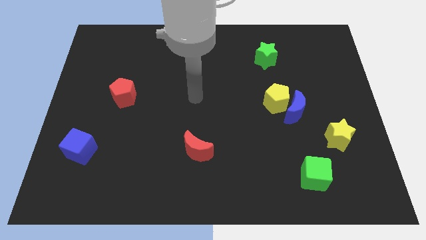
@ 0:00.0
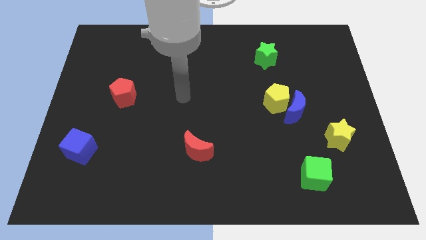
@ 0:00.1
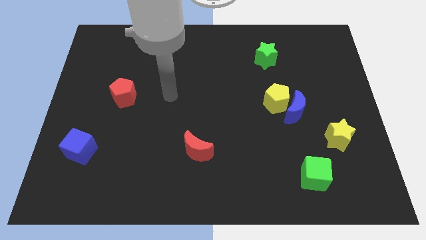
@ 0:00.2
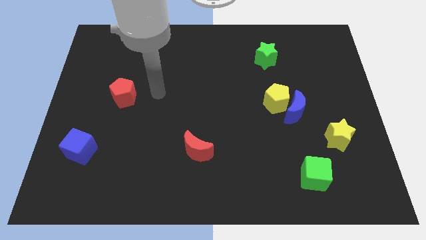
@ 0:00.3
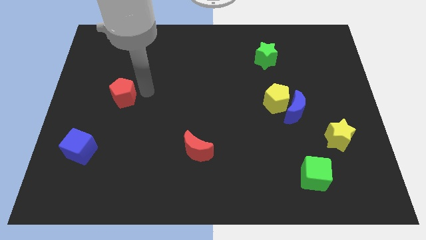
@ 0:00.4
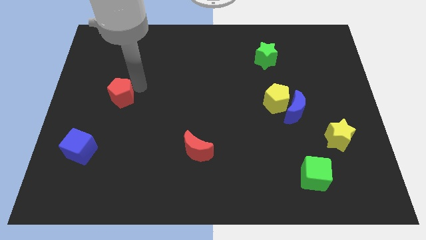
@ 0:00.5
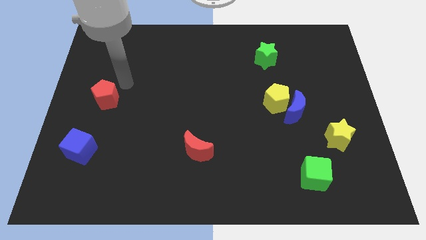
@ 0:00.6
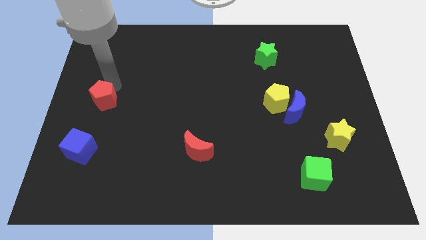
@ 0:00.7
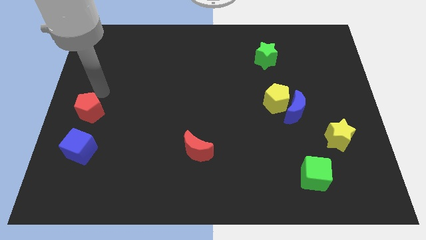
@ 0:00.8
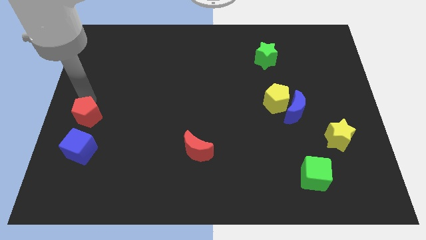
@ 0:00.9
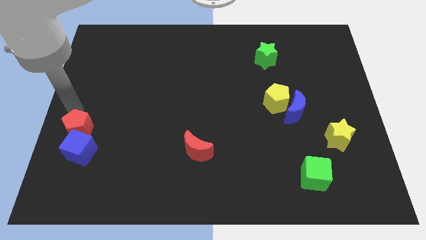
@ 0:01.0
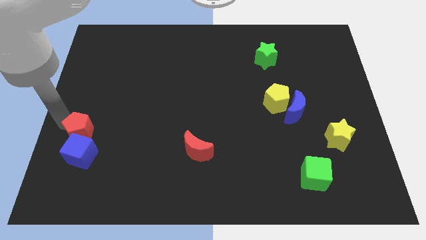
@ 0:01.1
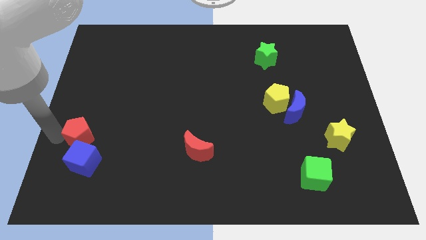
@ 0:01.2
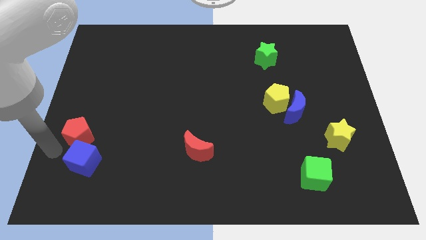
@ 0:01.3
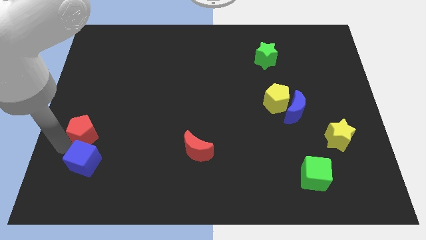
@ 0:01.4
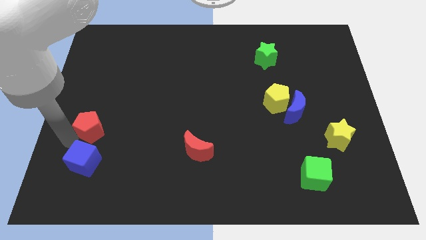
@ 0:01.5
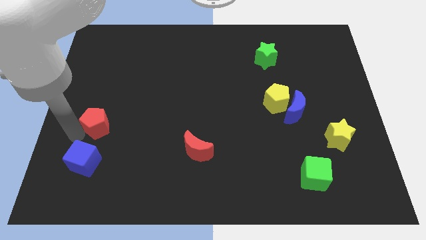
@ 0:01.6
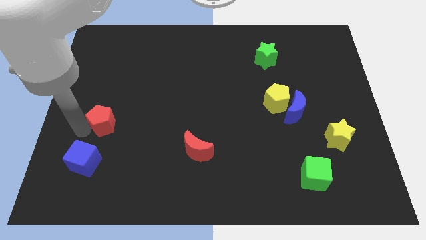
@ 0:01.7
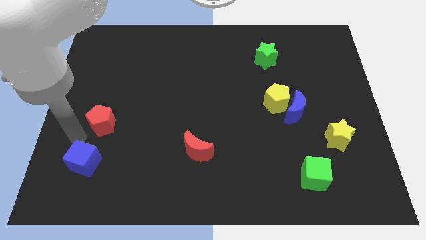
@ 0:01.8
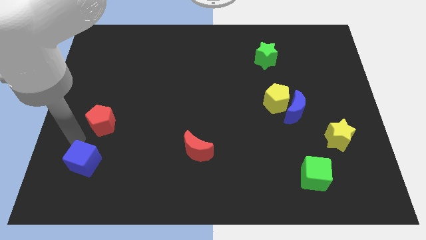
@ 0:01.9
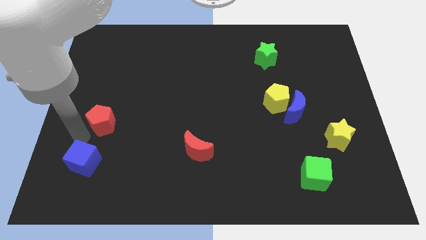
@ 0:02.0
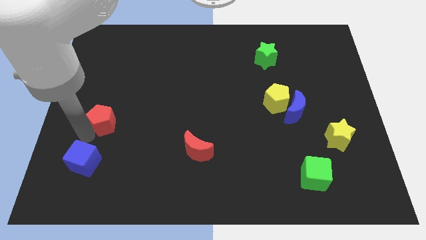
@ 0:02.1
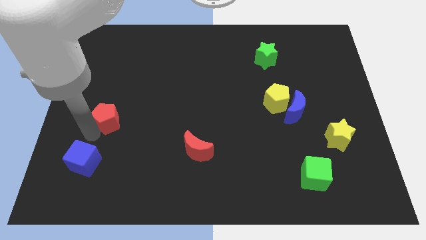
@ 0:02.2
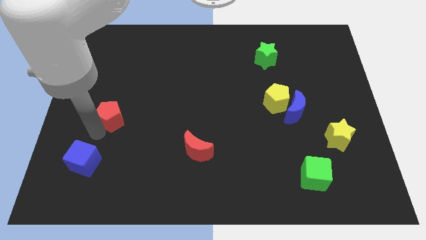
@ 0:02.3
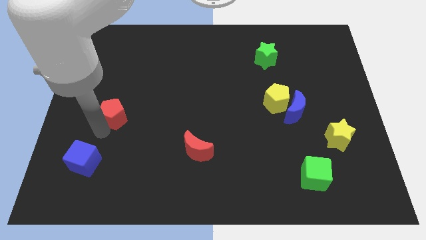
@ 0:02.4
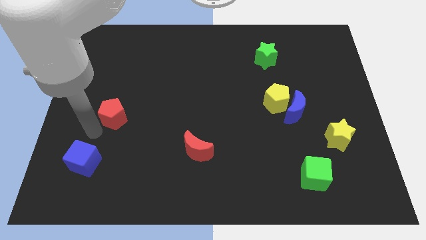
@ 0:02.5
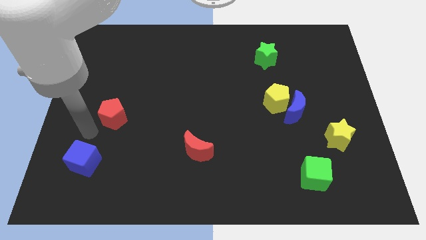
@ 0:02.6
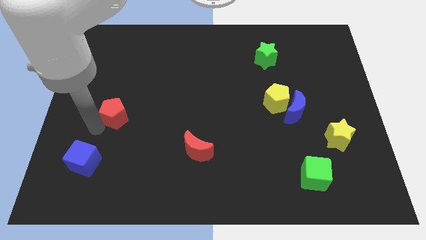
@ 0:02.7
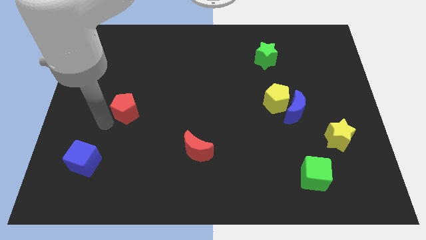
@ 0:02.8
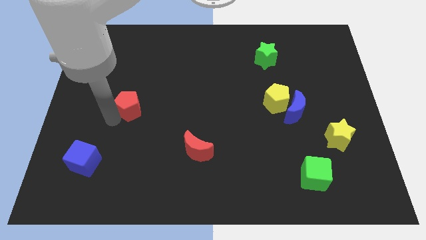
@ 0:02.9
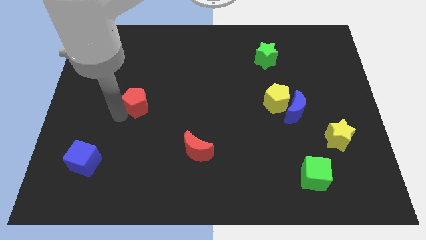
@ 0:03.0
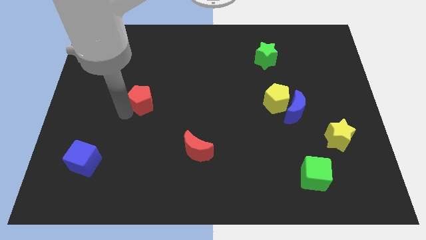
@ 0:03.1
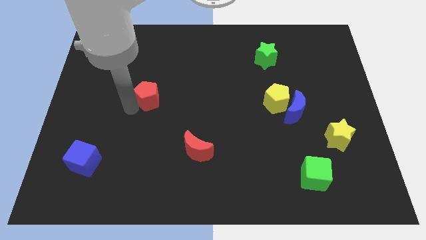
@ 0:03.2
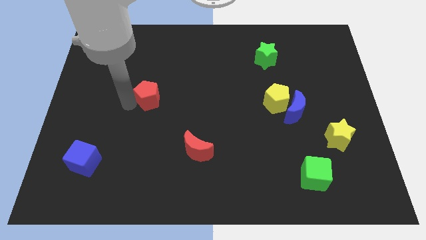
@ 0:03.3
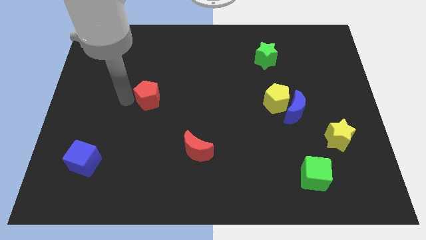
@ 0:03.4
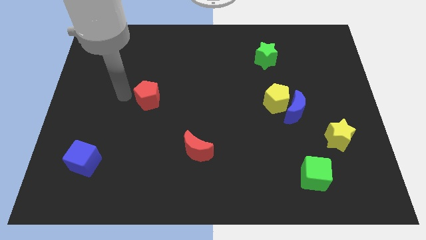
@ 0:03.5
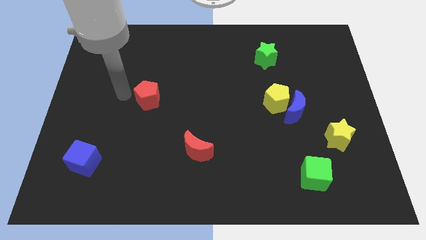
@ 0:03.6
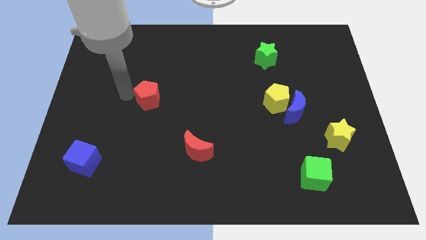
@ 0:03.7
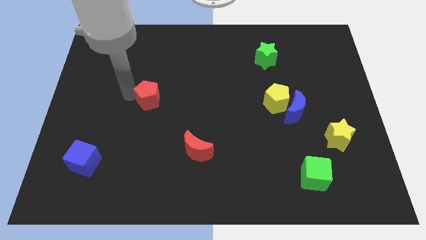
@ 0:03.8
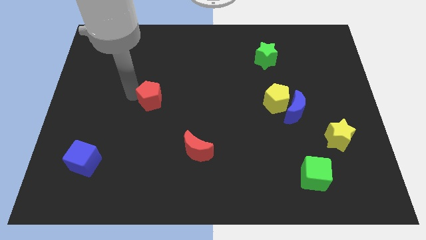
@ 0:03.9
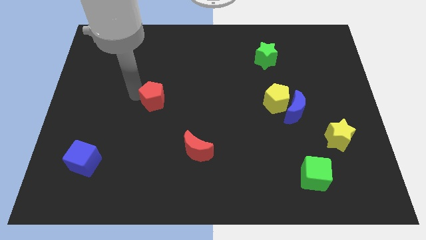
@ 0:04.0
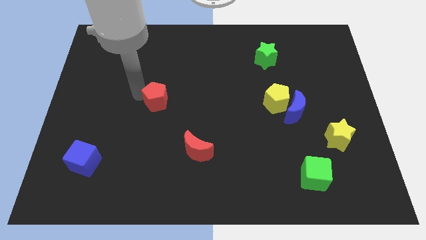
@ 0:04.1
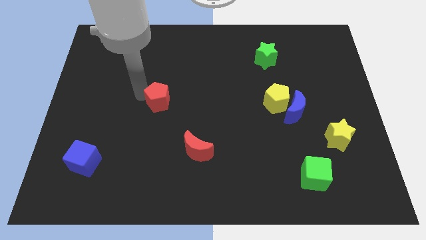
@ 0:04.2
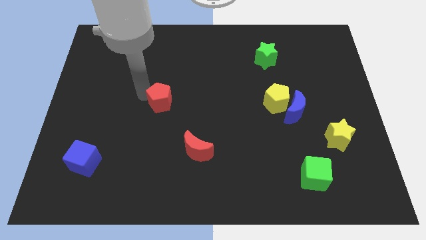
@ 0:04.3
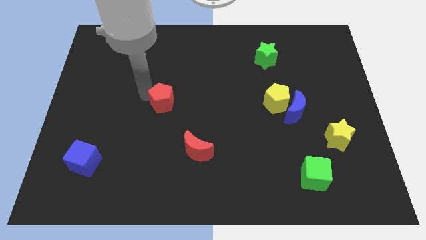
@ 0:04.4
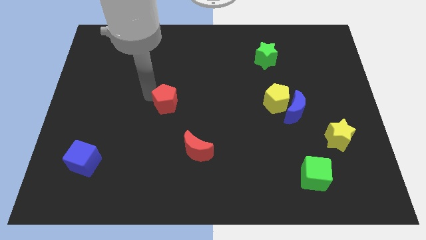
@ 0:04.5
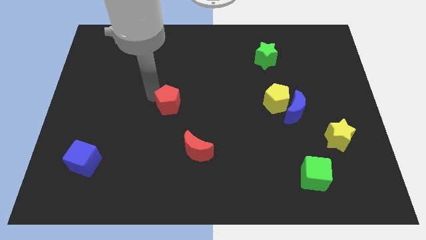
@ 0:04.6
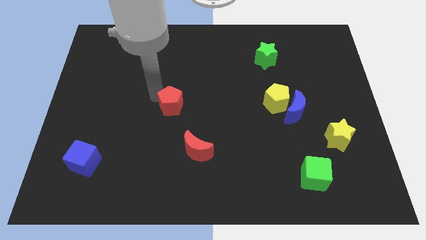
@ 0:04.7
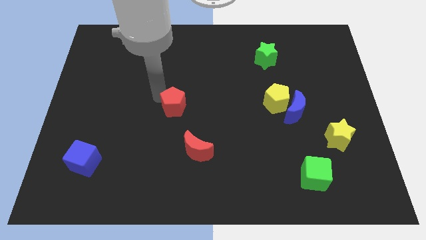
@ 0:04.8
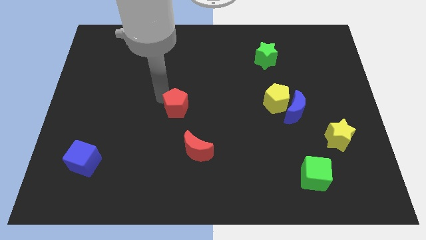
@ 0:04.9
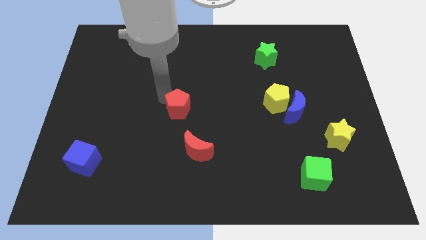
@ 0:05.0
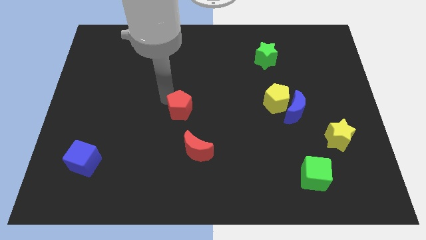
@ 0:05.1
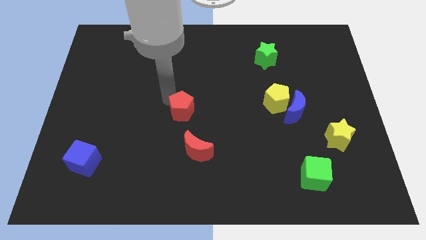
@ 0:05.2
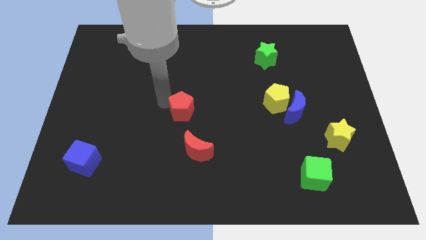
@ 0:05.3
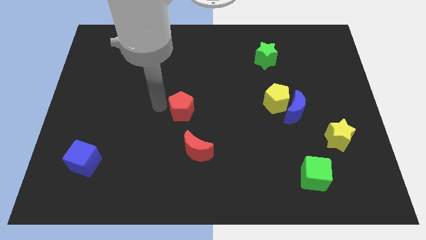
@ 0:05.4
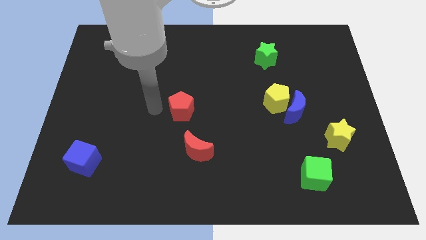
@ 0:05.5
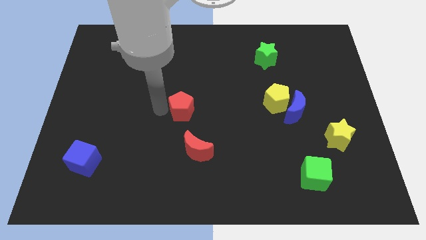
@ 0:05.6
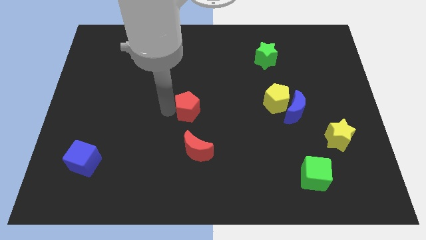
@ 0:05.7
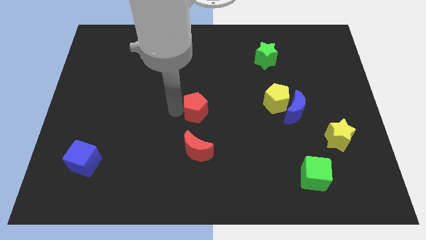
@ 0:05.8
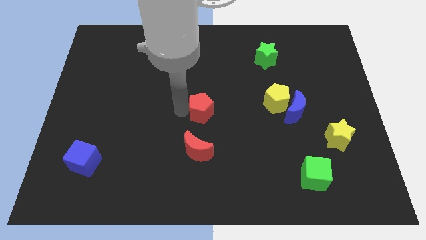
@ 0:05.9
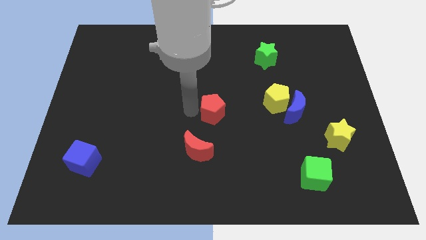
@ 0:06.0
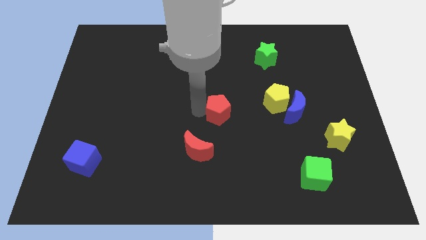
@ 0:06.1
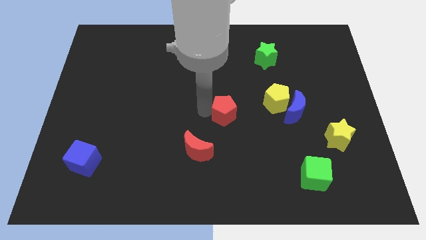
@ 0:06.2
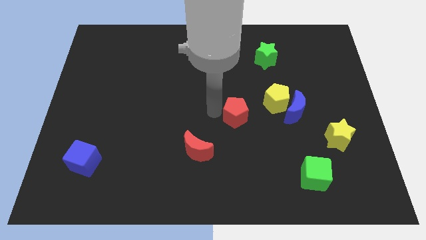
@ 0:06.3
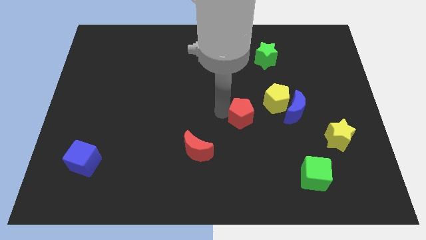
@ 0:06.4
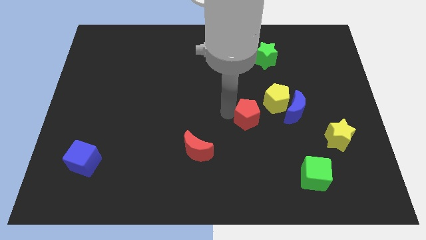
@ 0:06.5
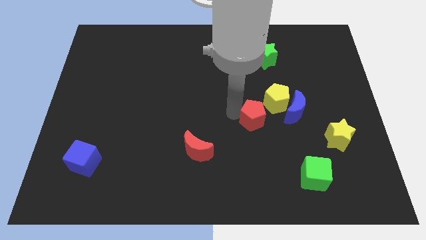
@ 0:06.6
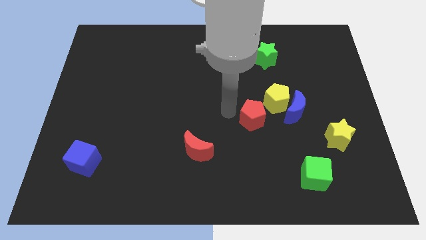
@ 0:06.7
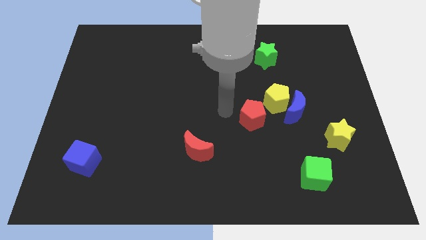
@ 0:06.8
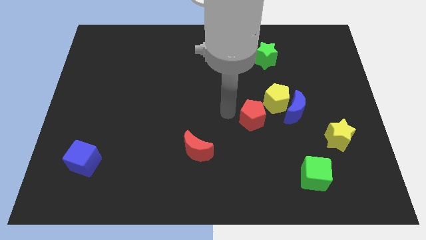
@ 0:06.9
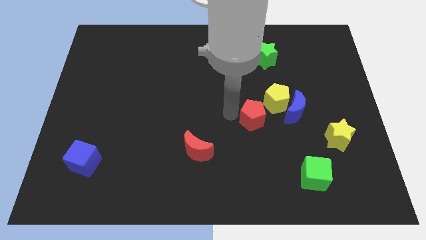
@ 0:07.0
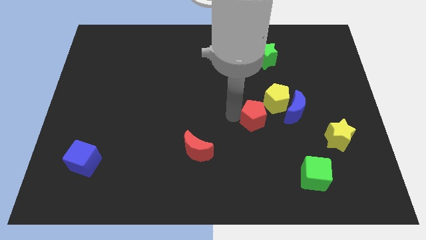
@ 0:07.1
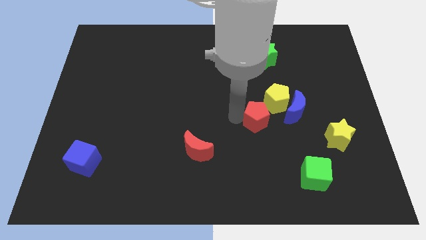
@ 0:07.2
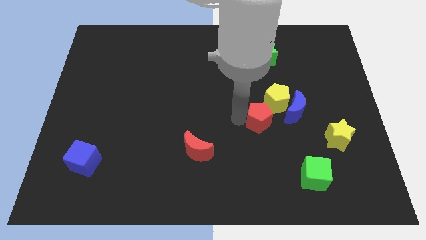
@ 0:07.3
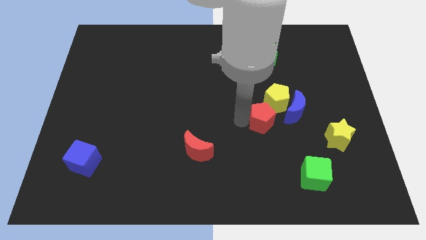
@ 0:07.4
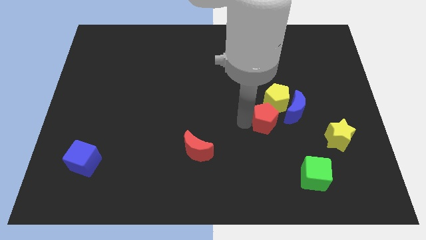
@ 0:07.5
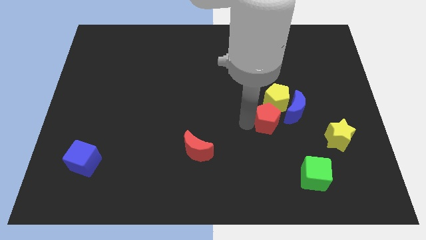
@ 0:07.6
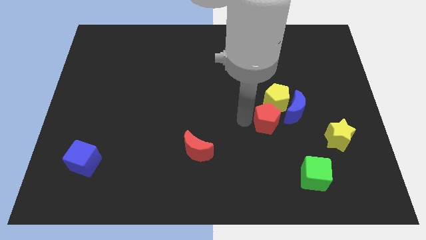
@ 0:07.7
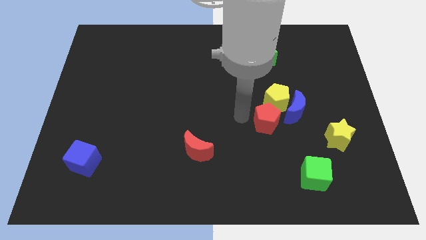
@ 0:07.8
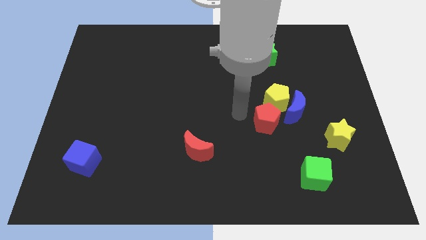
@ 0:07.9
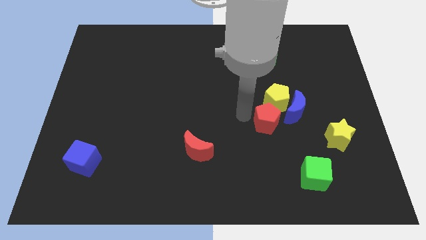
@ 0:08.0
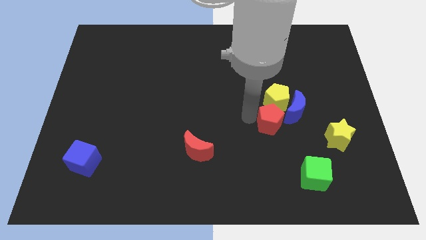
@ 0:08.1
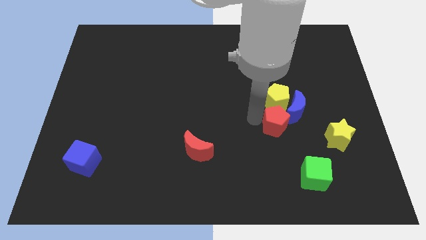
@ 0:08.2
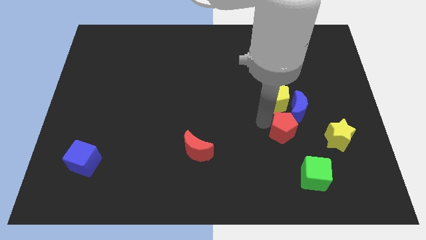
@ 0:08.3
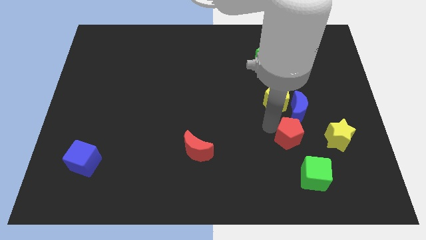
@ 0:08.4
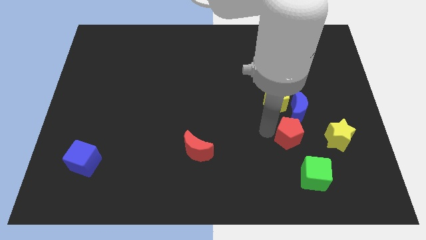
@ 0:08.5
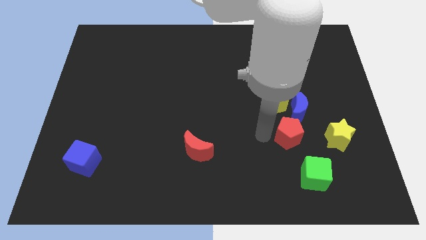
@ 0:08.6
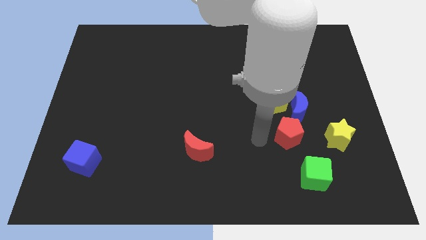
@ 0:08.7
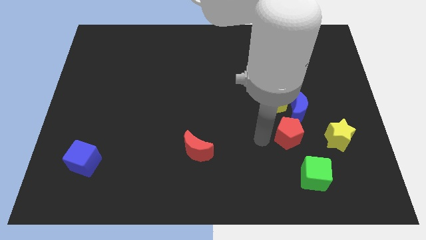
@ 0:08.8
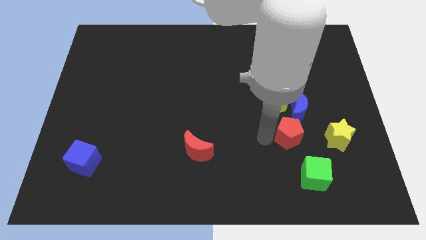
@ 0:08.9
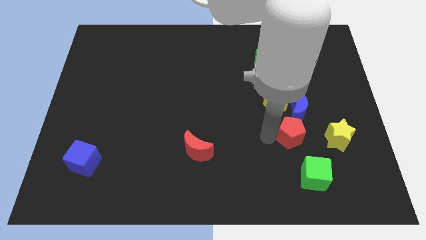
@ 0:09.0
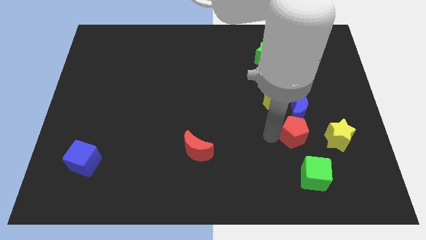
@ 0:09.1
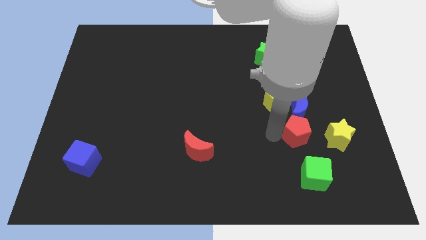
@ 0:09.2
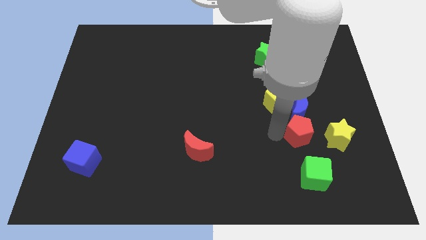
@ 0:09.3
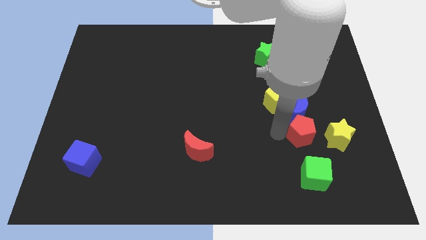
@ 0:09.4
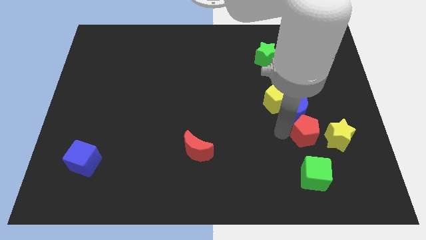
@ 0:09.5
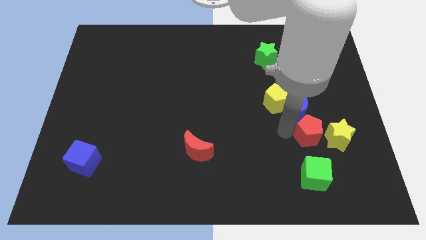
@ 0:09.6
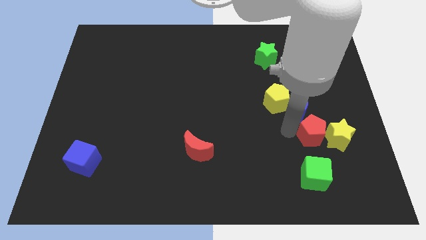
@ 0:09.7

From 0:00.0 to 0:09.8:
put the red pentagon close to the yellow star
